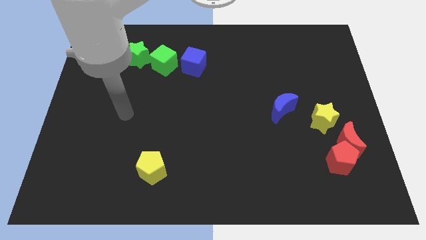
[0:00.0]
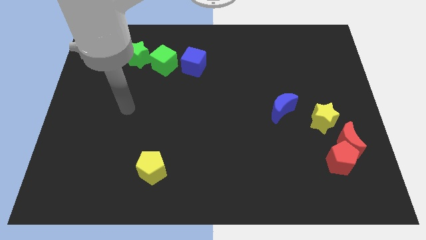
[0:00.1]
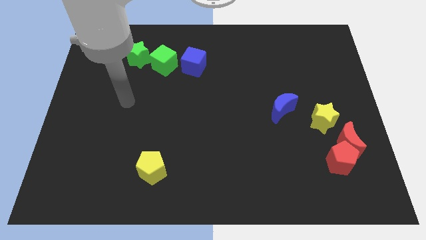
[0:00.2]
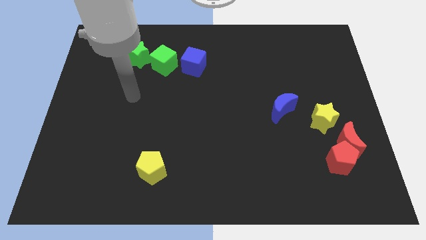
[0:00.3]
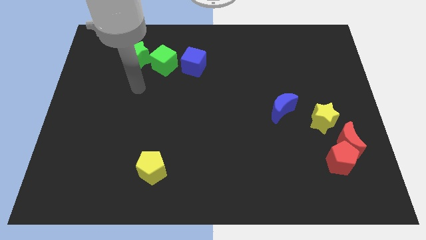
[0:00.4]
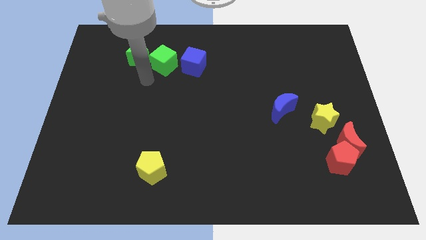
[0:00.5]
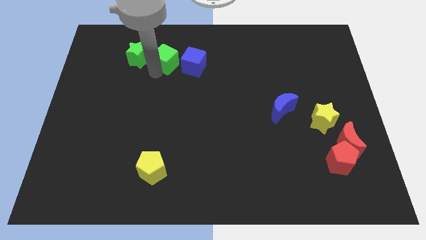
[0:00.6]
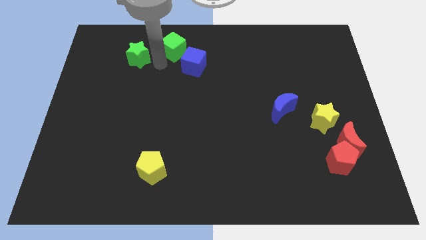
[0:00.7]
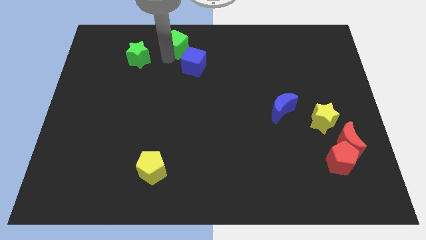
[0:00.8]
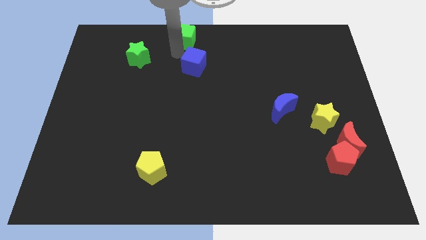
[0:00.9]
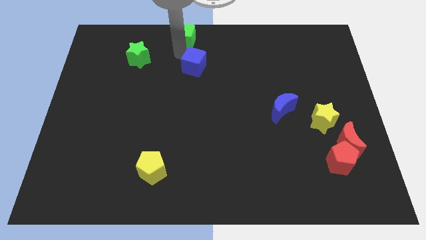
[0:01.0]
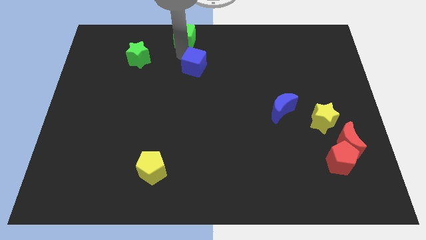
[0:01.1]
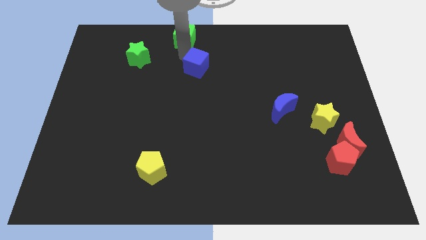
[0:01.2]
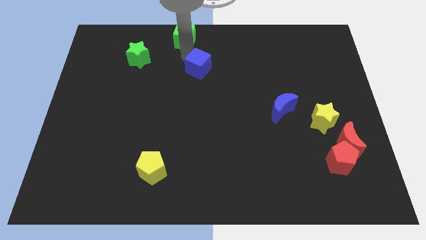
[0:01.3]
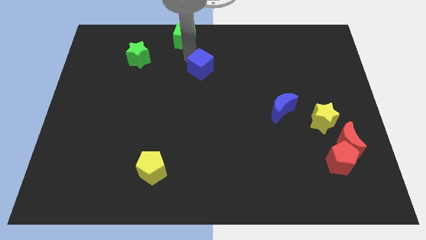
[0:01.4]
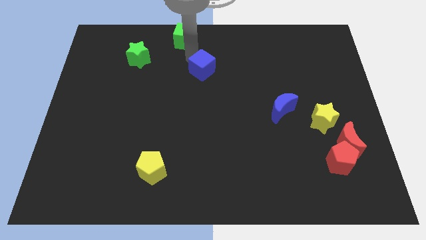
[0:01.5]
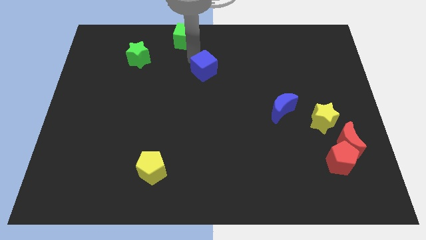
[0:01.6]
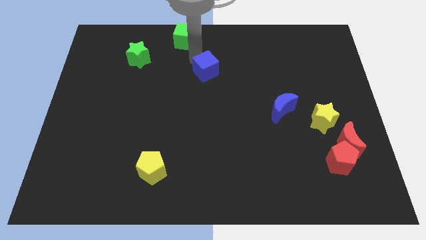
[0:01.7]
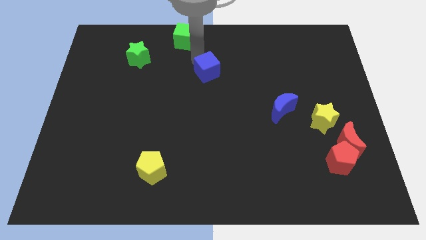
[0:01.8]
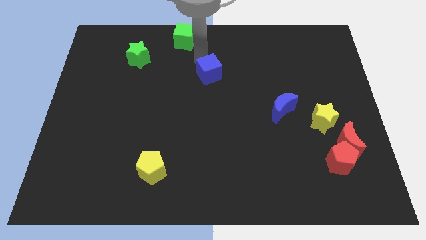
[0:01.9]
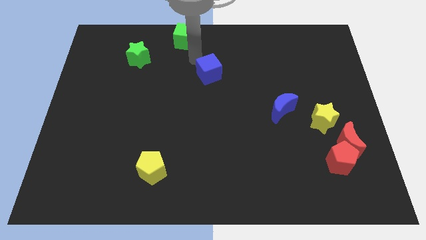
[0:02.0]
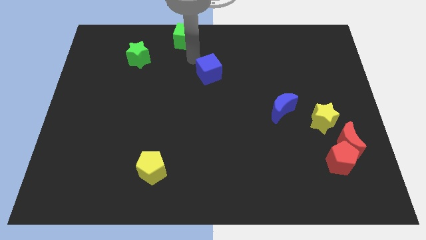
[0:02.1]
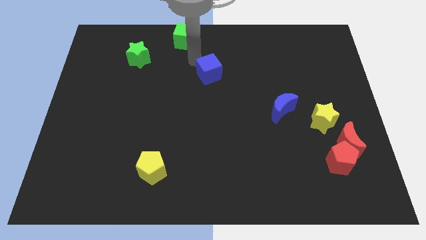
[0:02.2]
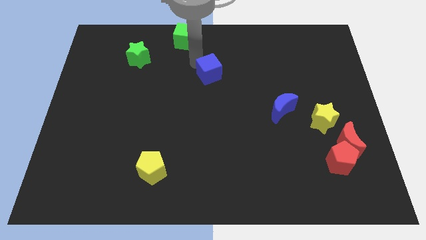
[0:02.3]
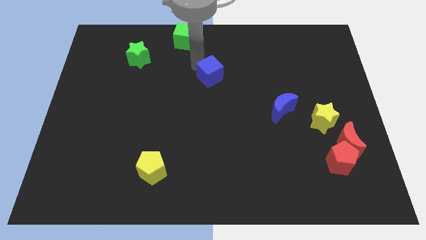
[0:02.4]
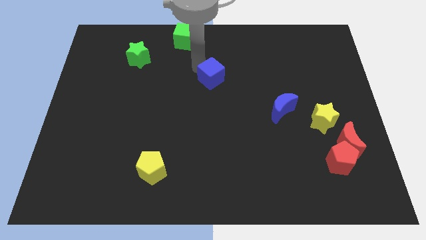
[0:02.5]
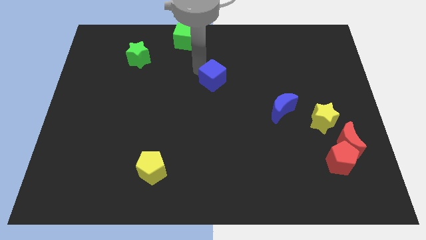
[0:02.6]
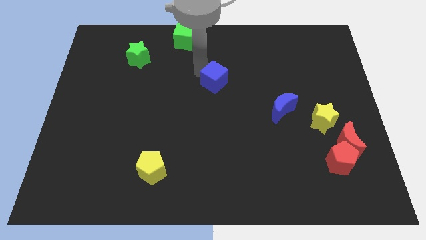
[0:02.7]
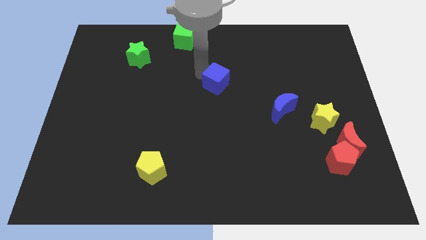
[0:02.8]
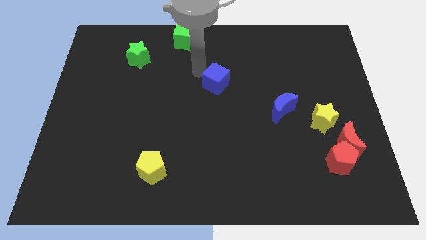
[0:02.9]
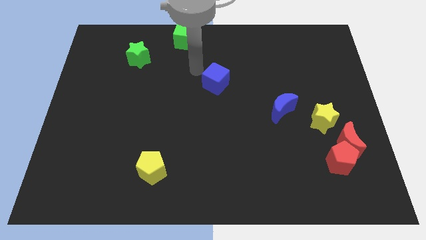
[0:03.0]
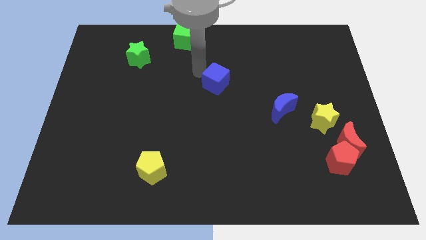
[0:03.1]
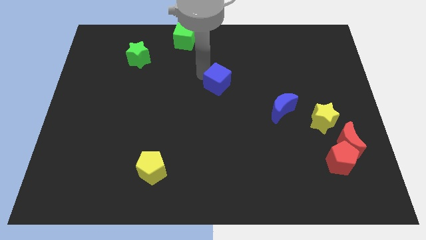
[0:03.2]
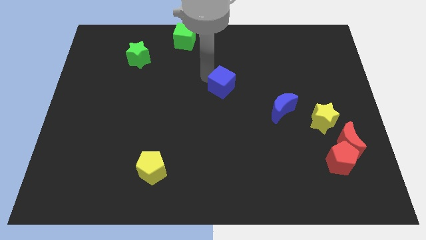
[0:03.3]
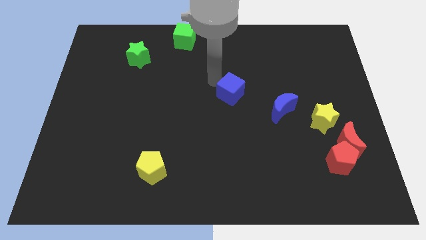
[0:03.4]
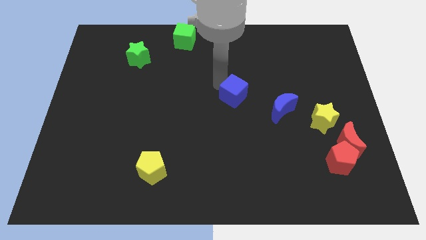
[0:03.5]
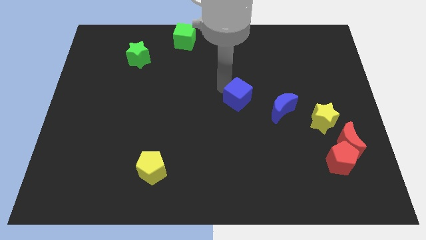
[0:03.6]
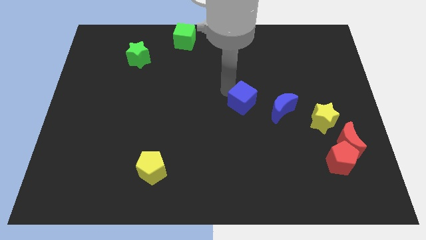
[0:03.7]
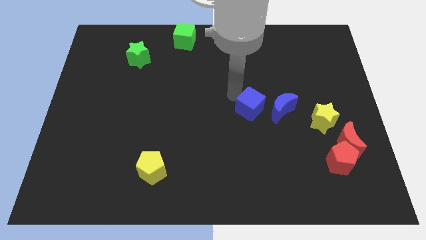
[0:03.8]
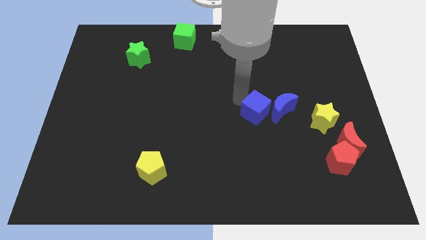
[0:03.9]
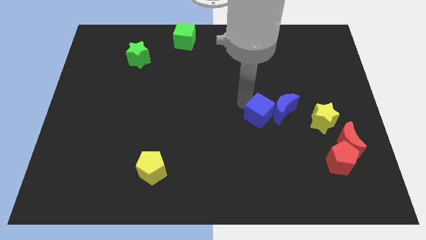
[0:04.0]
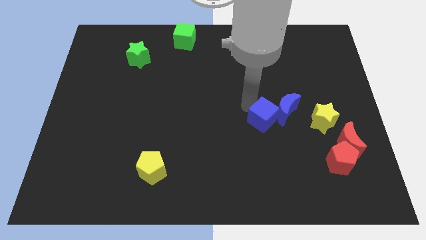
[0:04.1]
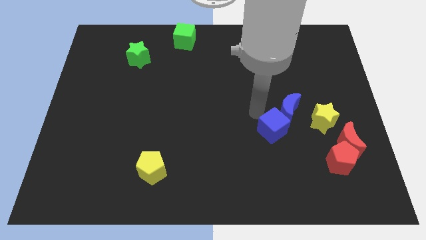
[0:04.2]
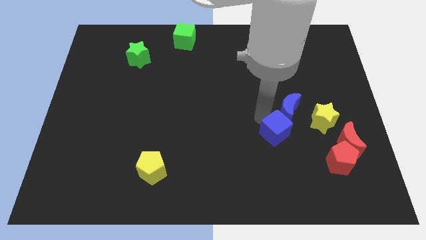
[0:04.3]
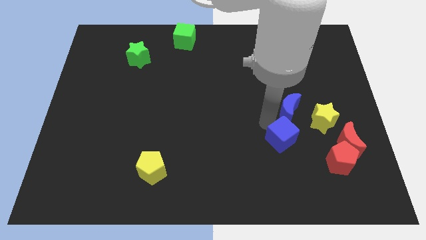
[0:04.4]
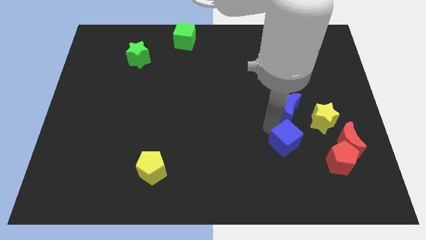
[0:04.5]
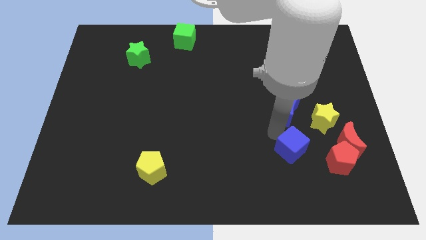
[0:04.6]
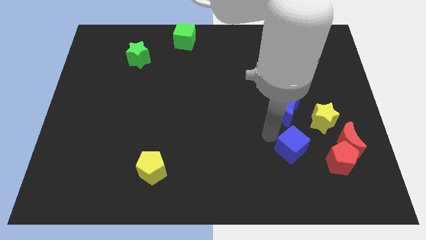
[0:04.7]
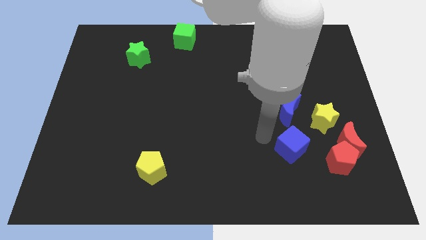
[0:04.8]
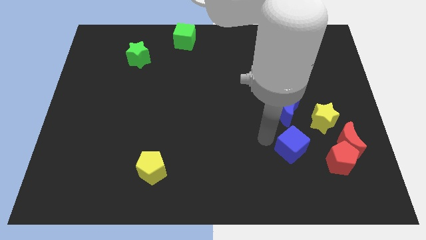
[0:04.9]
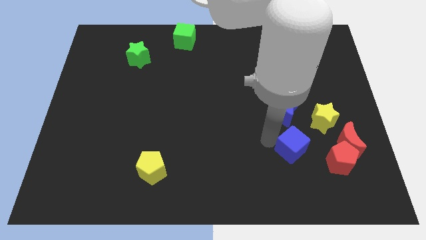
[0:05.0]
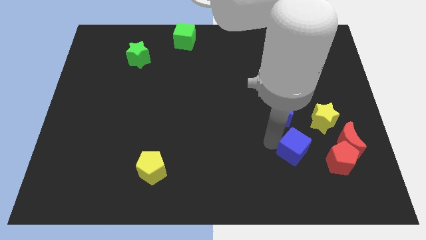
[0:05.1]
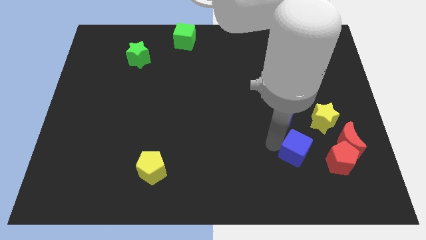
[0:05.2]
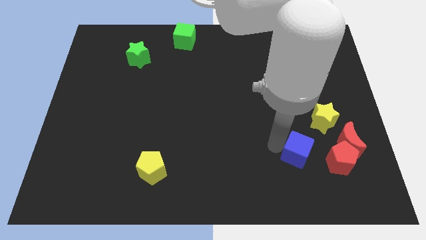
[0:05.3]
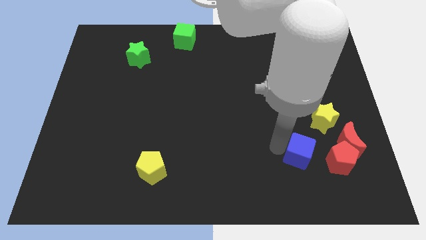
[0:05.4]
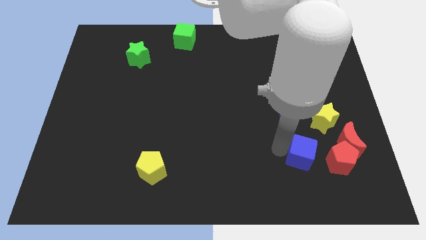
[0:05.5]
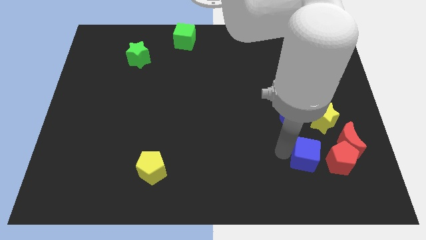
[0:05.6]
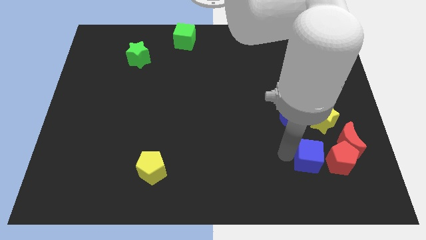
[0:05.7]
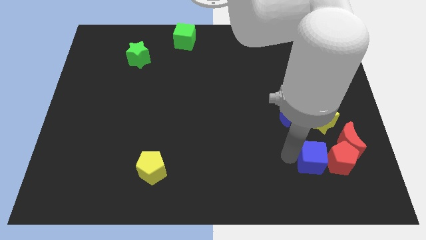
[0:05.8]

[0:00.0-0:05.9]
slide the blue cube towards the red pentagon
